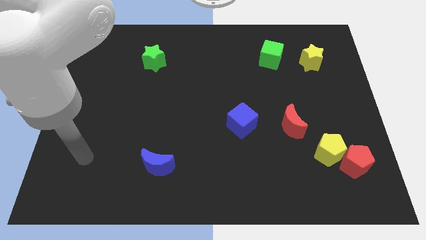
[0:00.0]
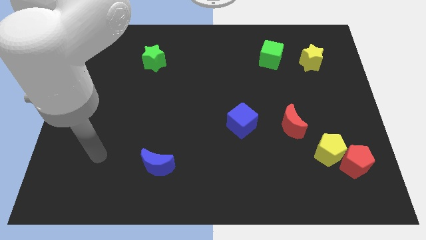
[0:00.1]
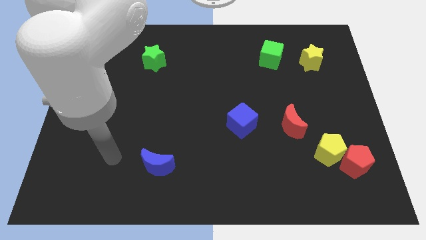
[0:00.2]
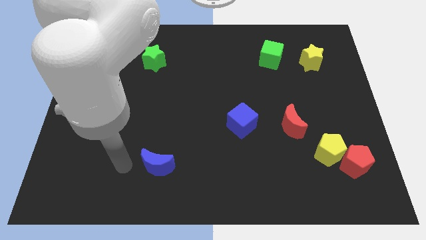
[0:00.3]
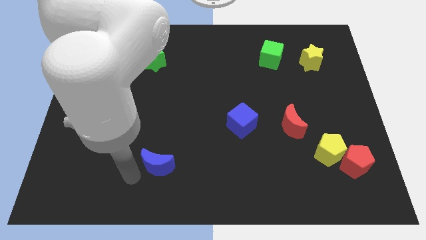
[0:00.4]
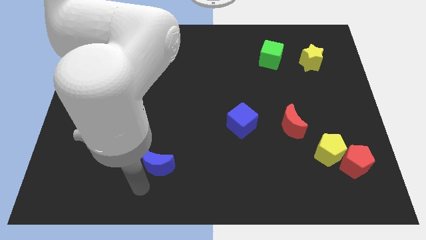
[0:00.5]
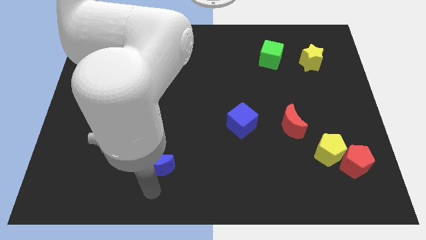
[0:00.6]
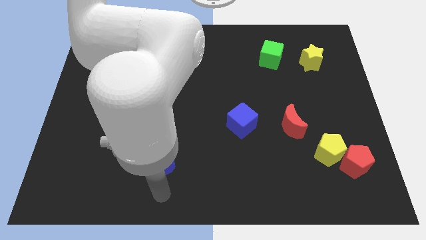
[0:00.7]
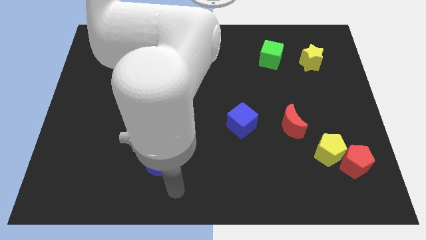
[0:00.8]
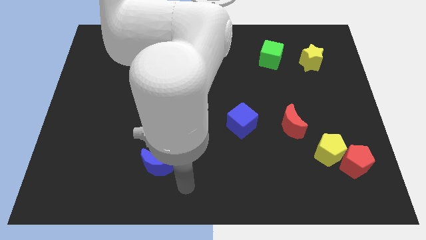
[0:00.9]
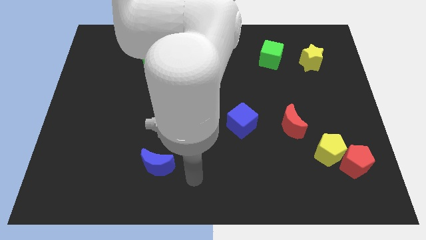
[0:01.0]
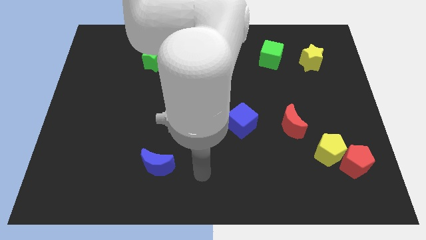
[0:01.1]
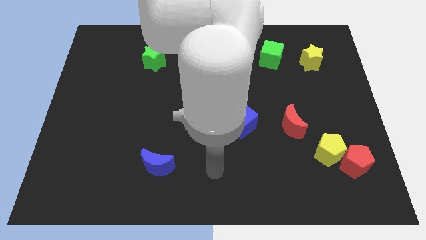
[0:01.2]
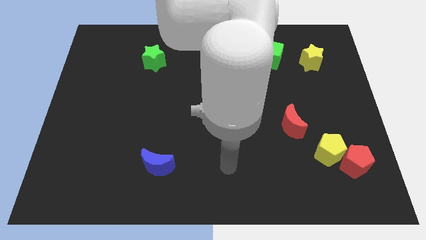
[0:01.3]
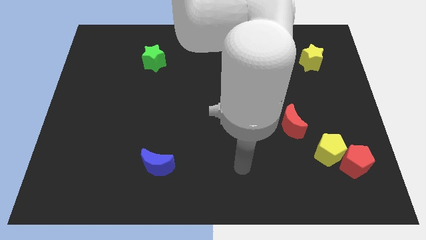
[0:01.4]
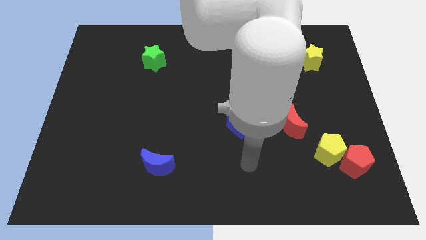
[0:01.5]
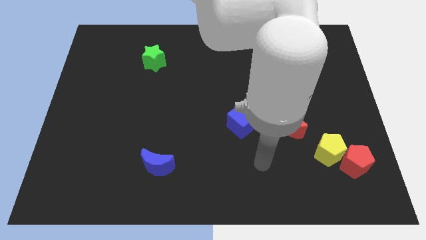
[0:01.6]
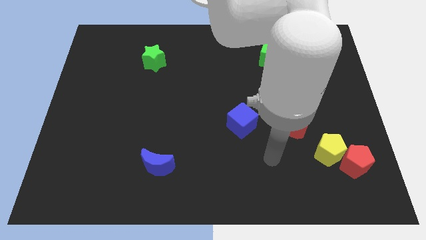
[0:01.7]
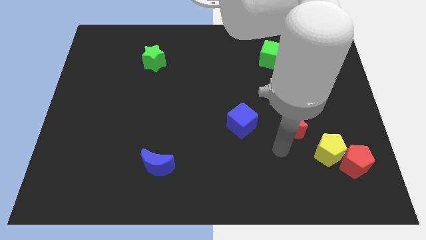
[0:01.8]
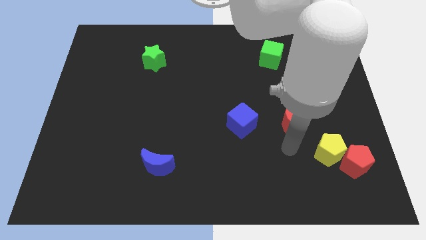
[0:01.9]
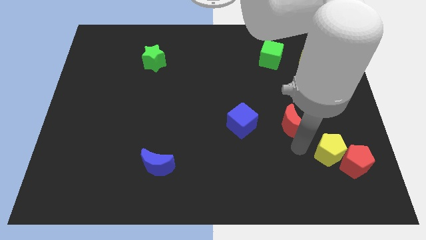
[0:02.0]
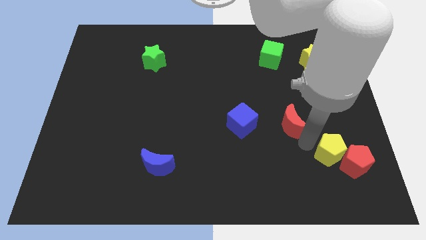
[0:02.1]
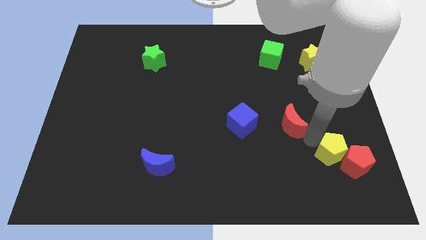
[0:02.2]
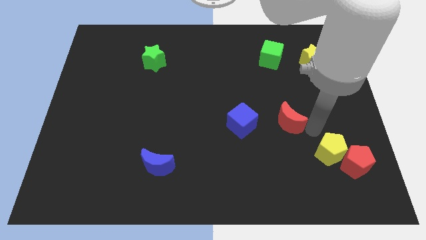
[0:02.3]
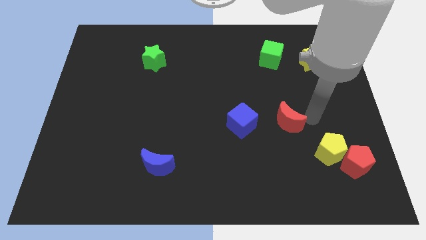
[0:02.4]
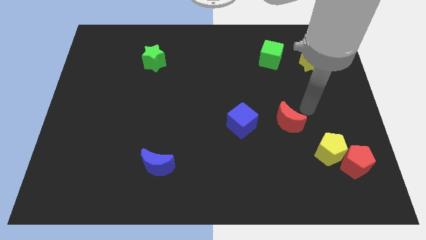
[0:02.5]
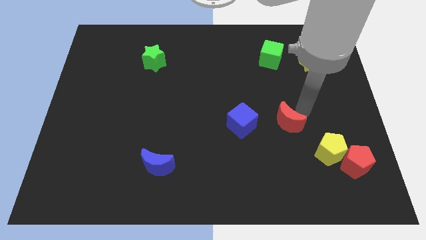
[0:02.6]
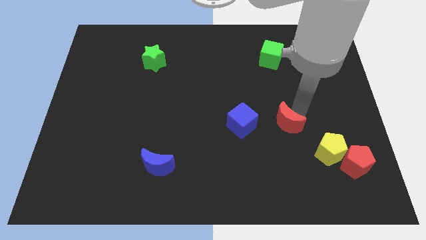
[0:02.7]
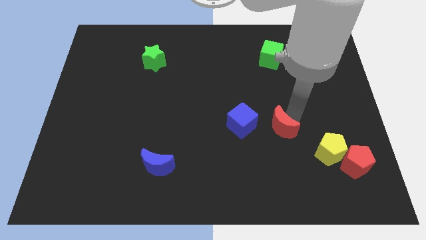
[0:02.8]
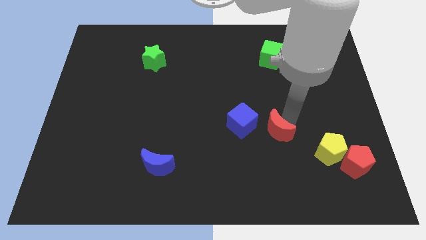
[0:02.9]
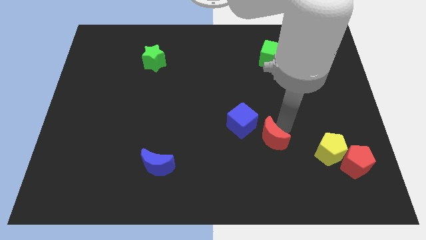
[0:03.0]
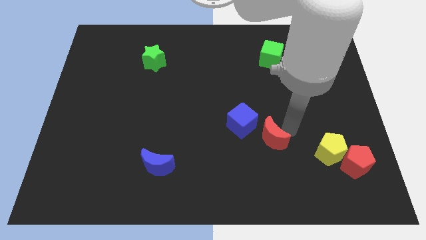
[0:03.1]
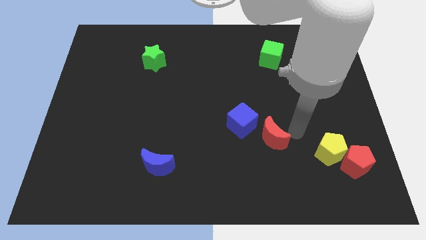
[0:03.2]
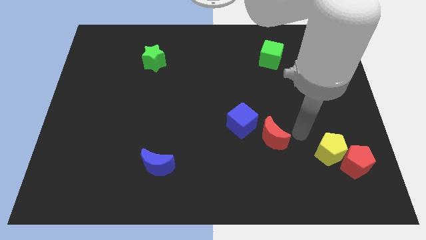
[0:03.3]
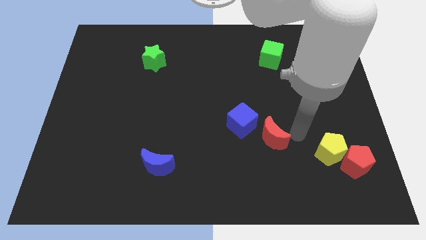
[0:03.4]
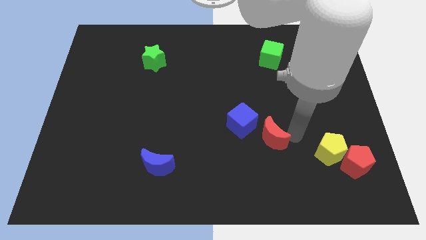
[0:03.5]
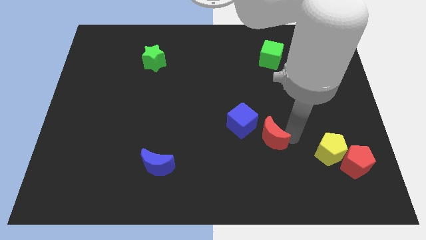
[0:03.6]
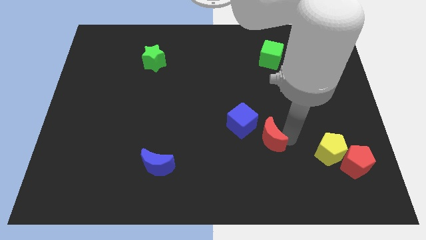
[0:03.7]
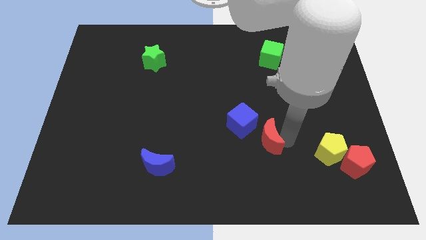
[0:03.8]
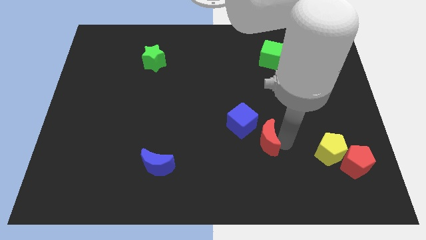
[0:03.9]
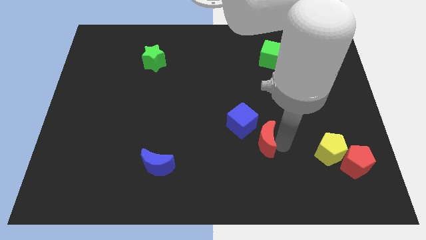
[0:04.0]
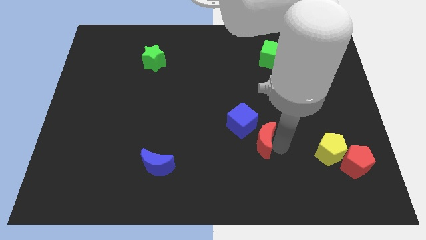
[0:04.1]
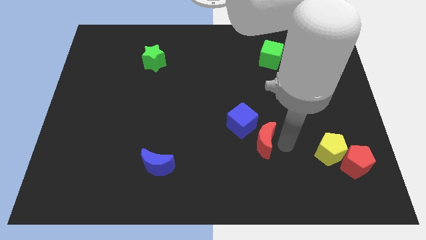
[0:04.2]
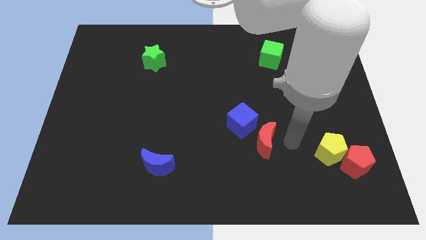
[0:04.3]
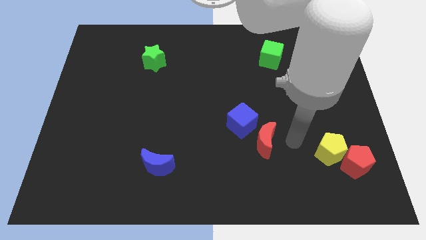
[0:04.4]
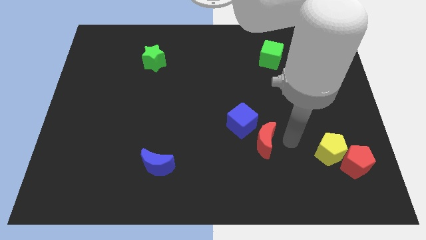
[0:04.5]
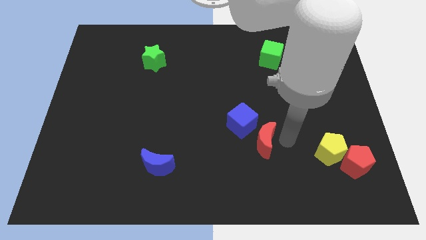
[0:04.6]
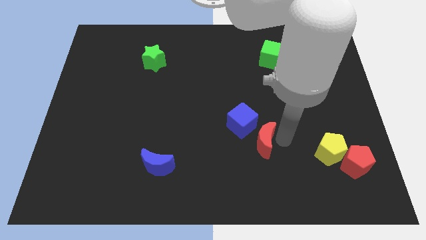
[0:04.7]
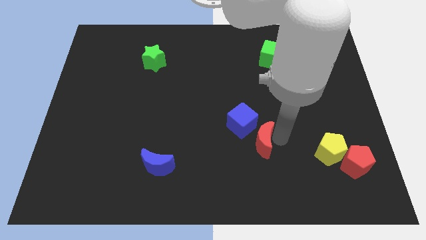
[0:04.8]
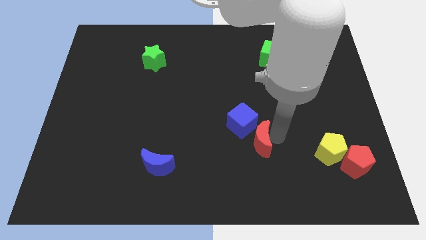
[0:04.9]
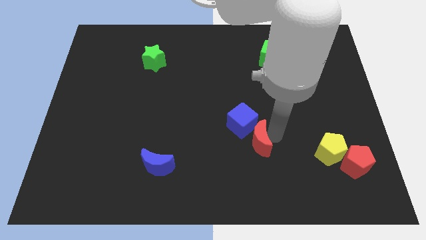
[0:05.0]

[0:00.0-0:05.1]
slightly push the red moon to the left

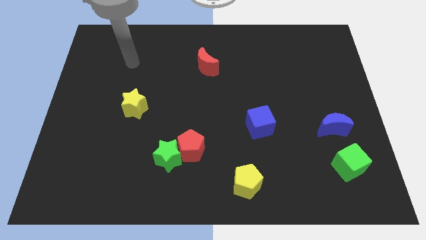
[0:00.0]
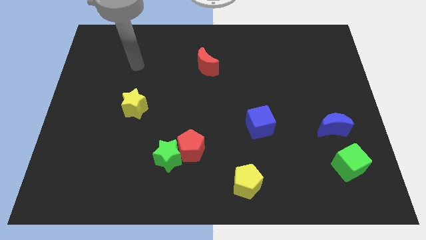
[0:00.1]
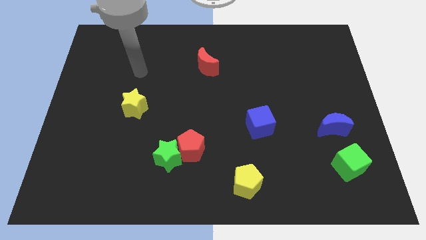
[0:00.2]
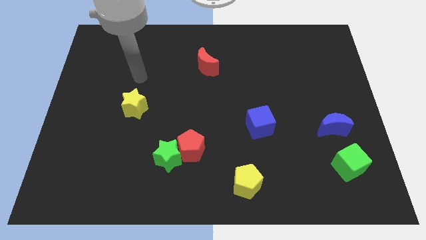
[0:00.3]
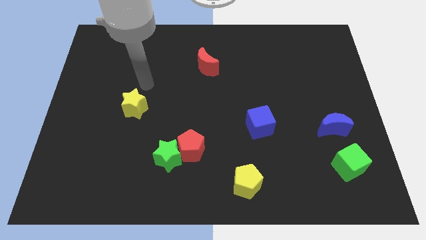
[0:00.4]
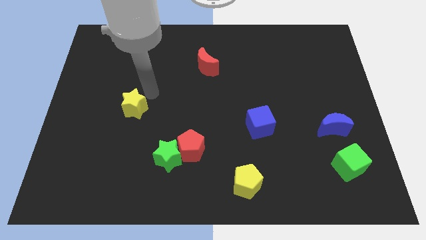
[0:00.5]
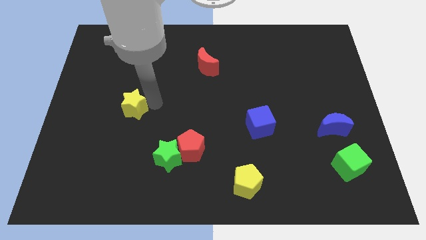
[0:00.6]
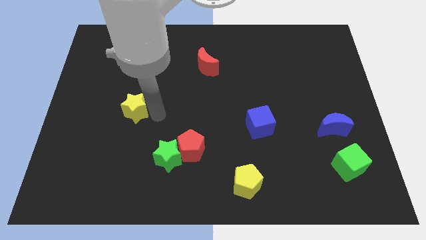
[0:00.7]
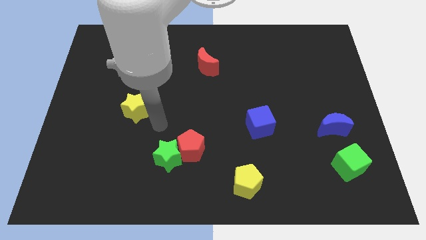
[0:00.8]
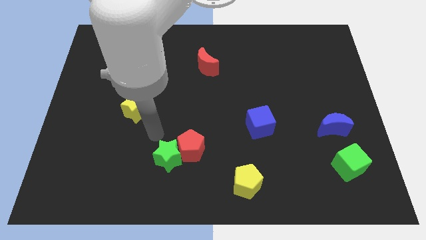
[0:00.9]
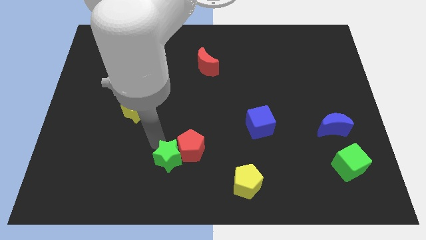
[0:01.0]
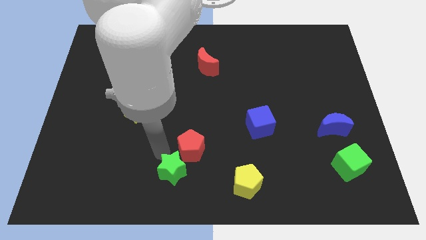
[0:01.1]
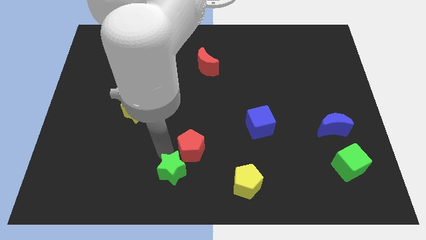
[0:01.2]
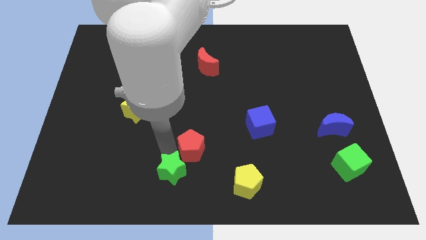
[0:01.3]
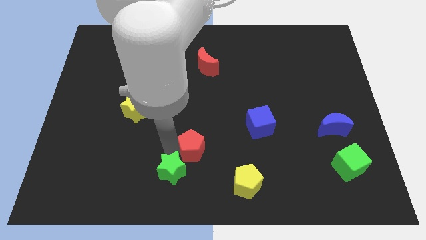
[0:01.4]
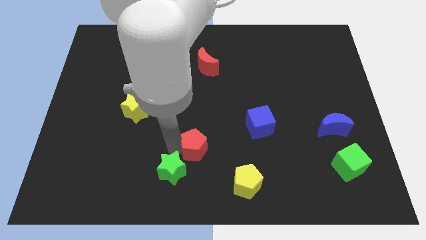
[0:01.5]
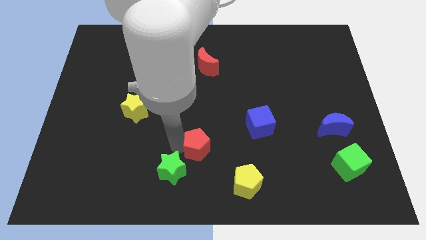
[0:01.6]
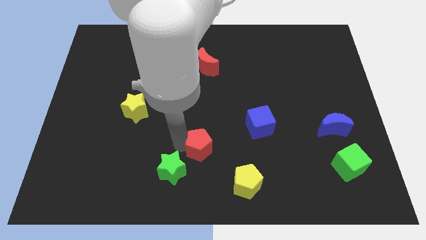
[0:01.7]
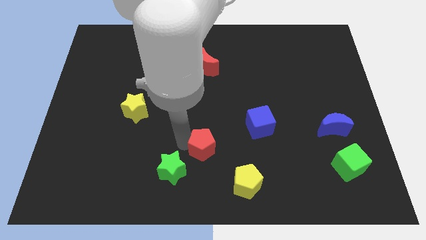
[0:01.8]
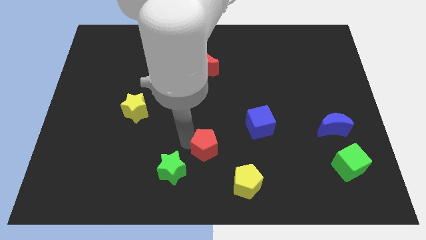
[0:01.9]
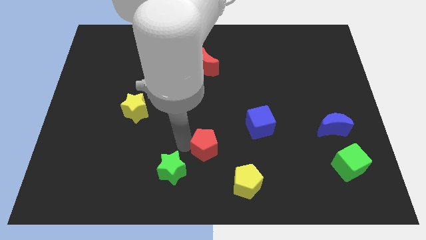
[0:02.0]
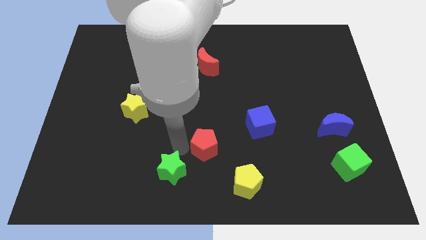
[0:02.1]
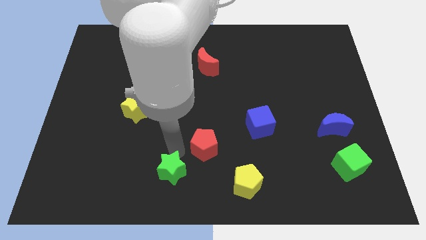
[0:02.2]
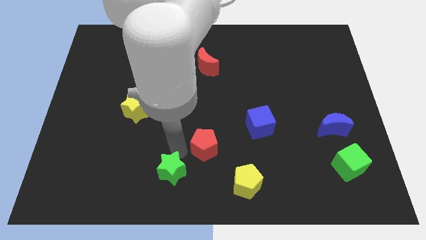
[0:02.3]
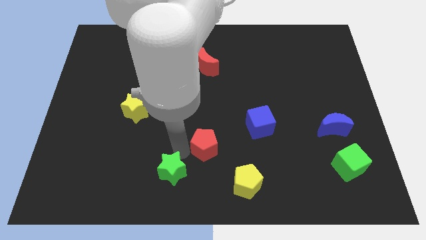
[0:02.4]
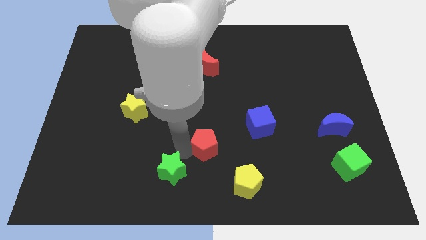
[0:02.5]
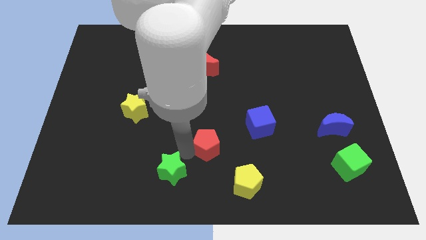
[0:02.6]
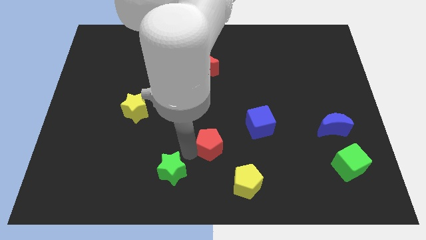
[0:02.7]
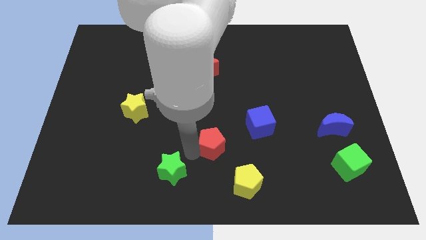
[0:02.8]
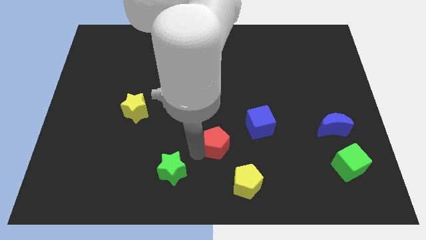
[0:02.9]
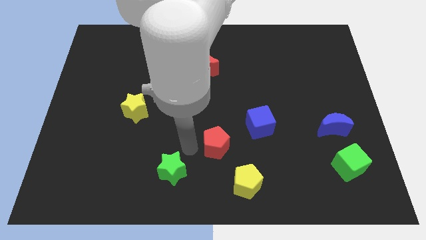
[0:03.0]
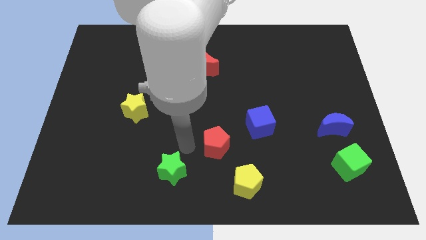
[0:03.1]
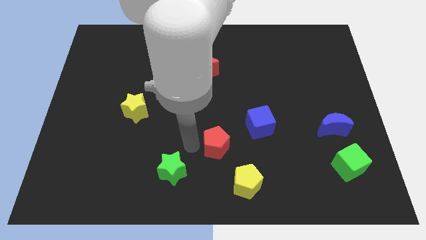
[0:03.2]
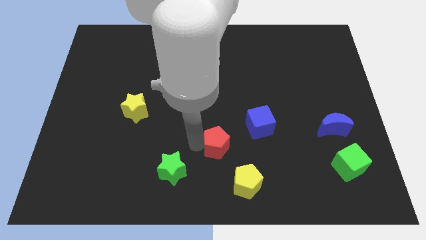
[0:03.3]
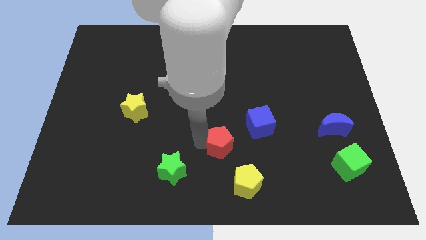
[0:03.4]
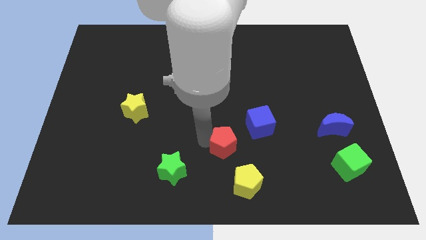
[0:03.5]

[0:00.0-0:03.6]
slightly slide the red pentagon to the right
